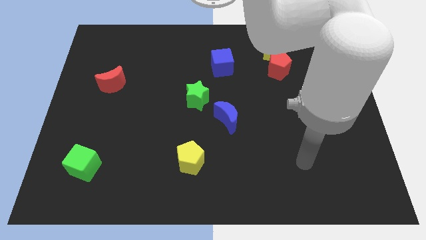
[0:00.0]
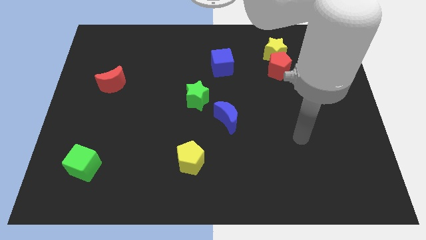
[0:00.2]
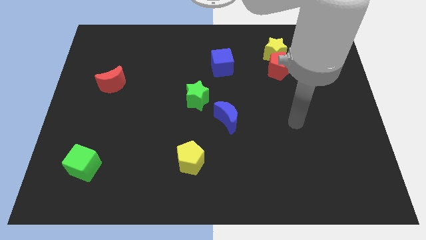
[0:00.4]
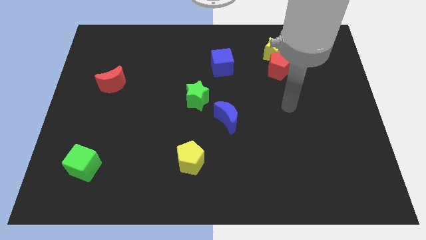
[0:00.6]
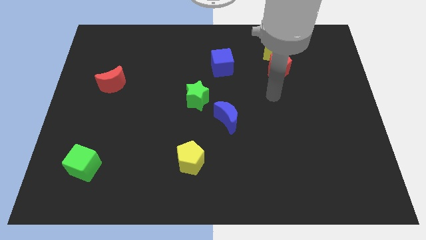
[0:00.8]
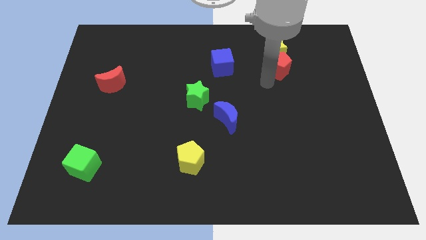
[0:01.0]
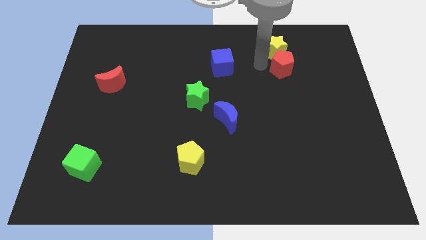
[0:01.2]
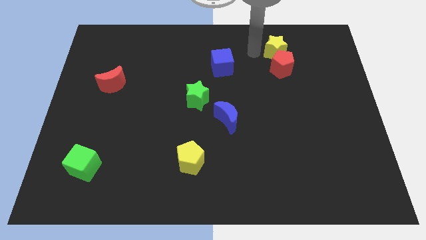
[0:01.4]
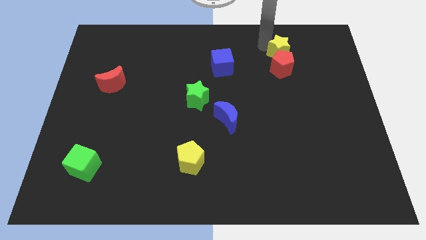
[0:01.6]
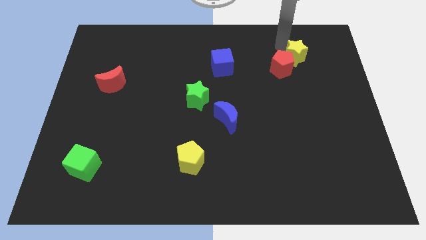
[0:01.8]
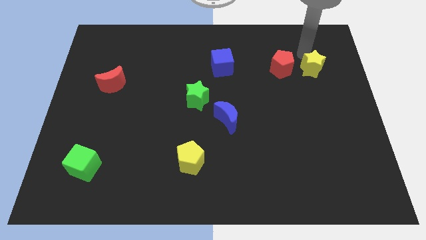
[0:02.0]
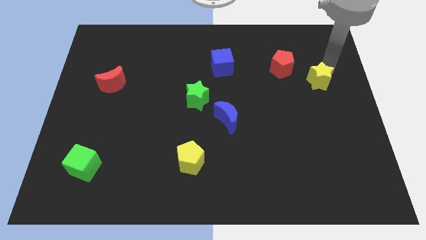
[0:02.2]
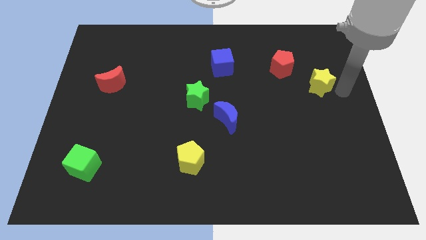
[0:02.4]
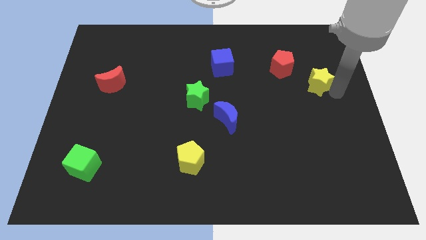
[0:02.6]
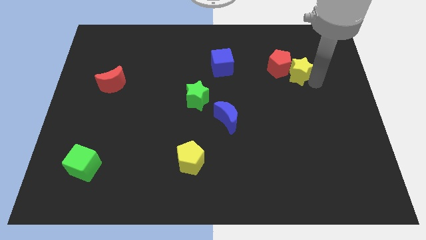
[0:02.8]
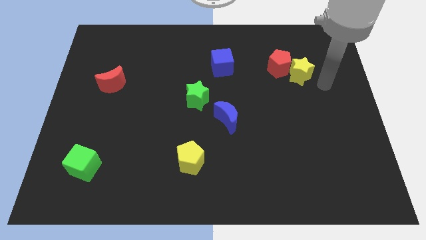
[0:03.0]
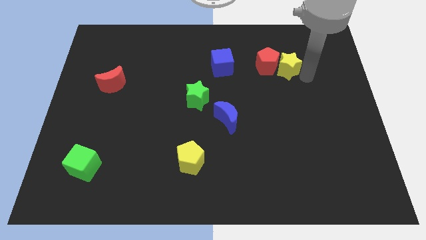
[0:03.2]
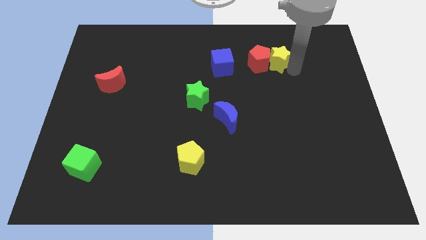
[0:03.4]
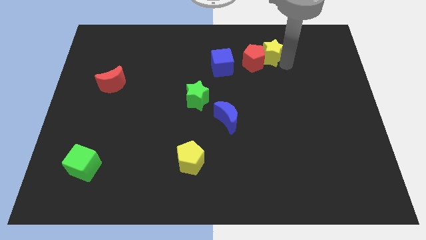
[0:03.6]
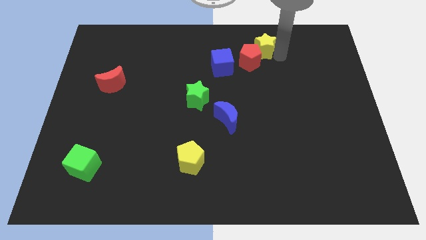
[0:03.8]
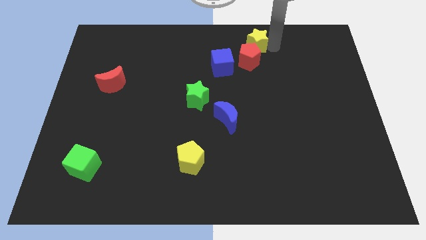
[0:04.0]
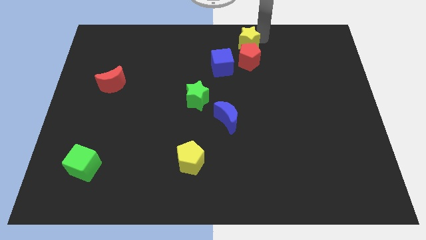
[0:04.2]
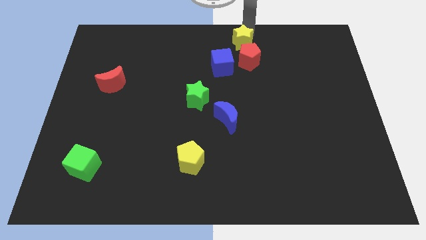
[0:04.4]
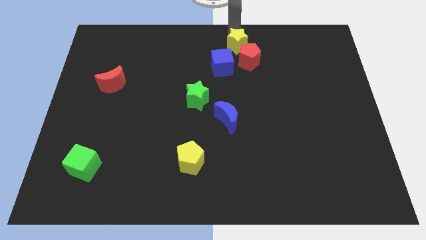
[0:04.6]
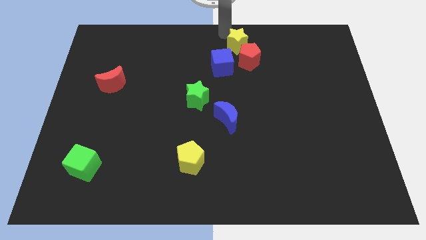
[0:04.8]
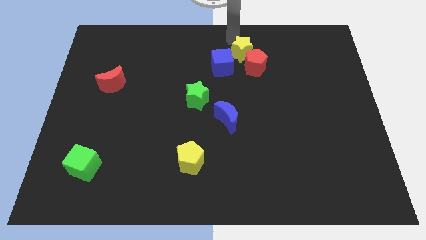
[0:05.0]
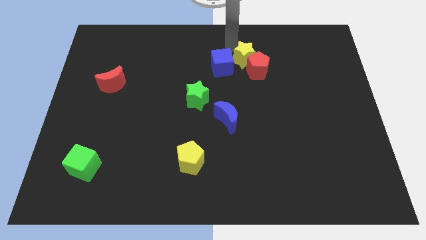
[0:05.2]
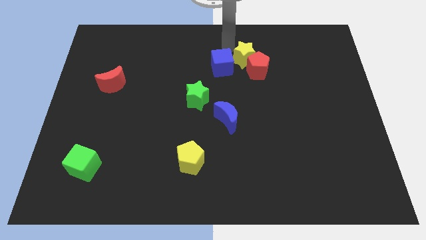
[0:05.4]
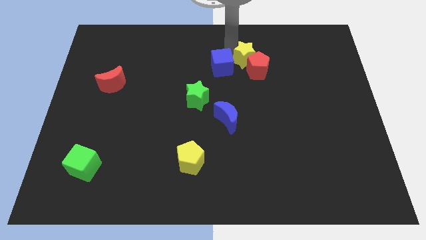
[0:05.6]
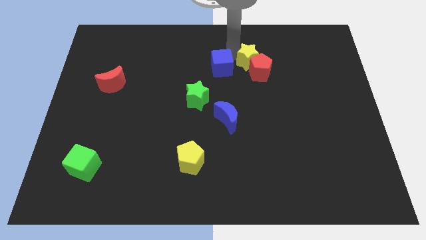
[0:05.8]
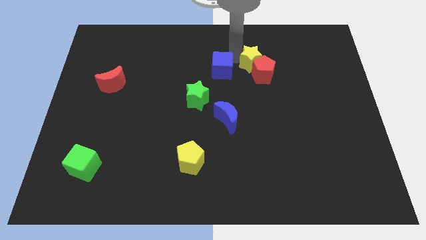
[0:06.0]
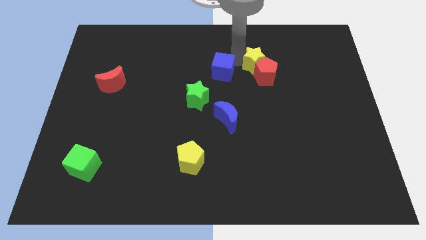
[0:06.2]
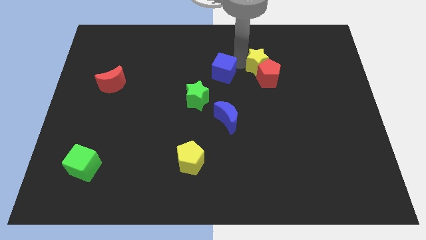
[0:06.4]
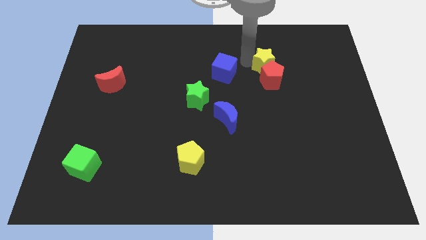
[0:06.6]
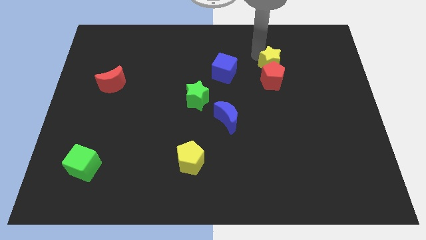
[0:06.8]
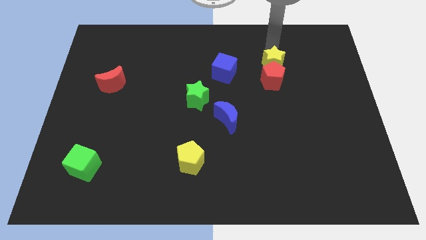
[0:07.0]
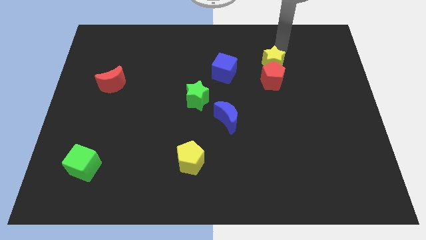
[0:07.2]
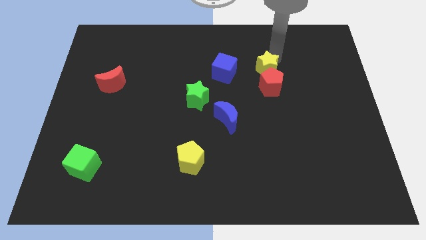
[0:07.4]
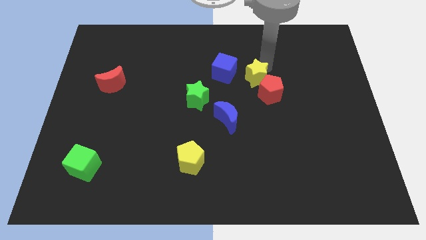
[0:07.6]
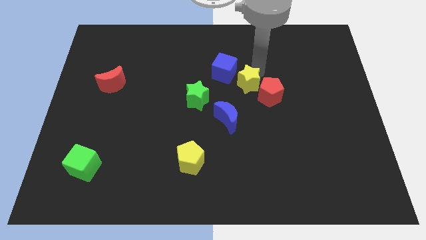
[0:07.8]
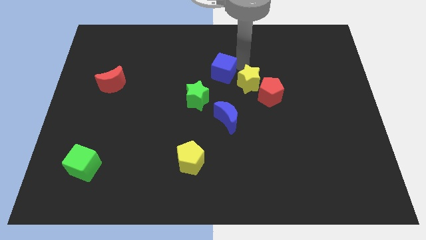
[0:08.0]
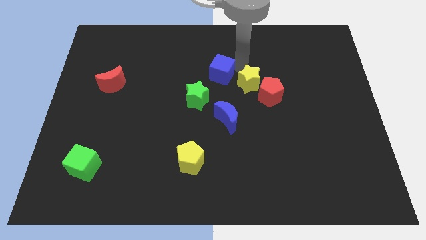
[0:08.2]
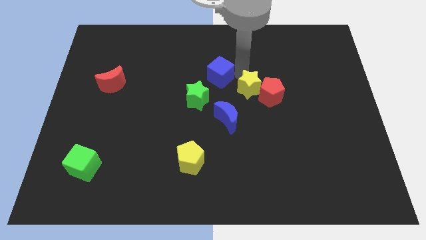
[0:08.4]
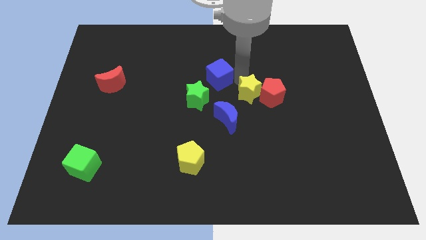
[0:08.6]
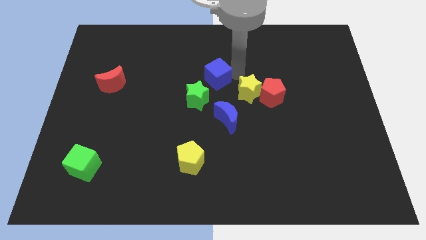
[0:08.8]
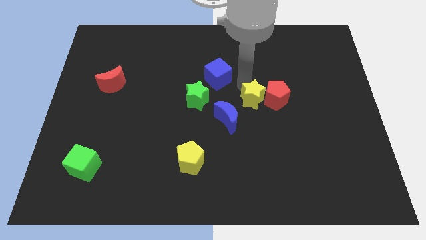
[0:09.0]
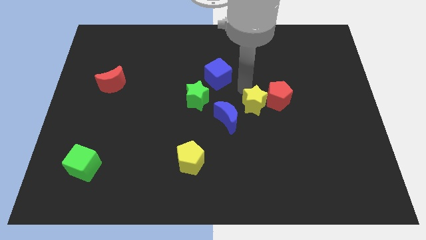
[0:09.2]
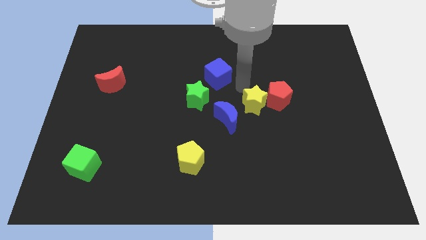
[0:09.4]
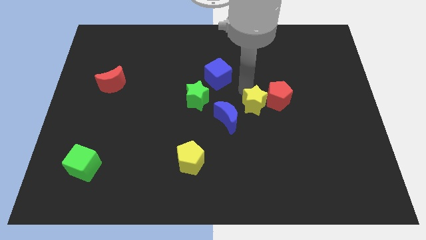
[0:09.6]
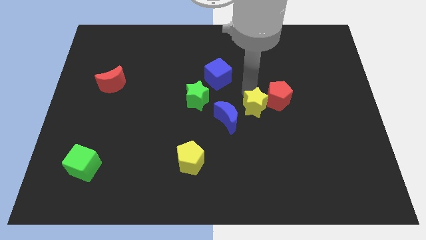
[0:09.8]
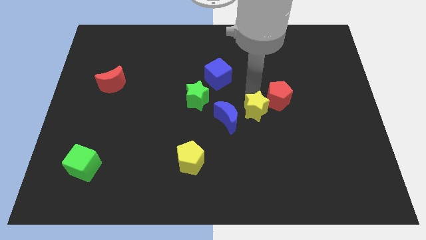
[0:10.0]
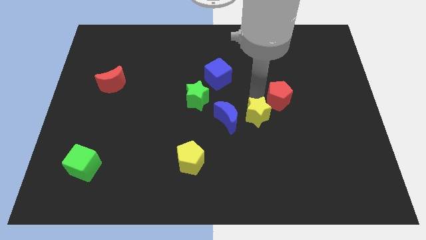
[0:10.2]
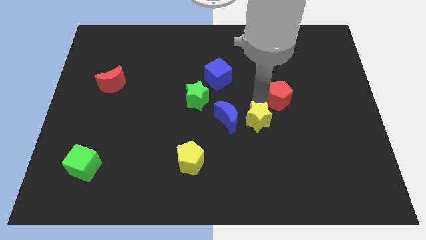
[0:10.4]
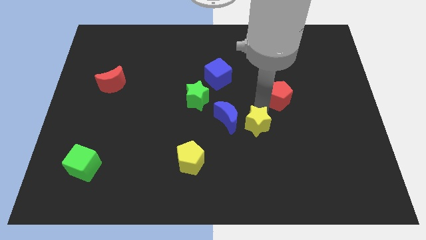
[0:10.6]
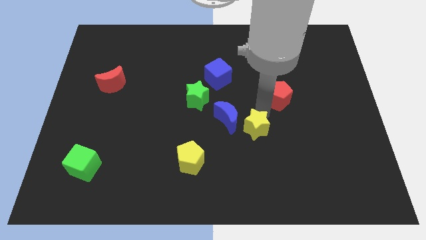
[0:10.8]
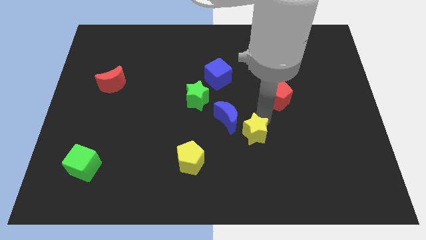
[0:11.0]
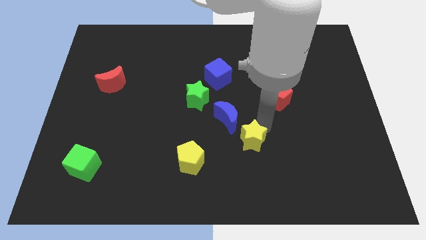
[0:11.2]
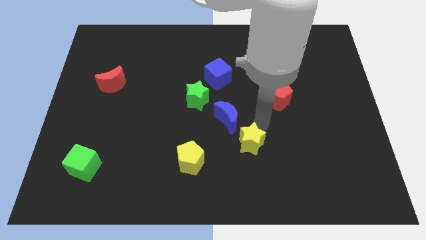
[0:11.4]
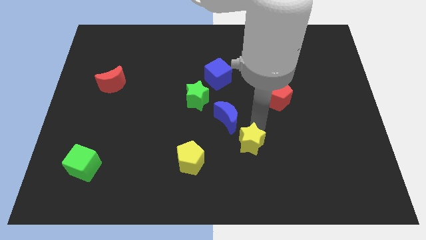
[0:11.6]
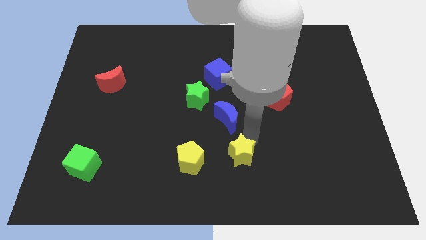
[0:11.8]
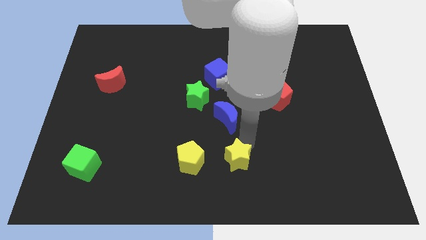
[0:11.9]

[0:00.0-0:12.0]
slide the yellow star to the bottom
